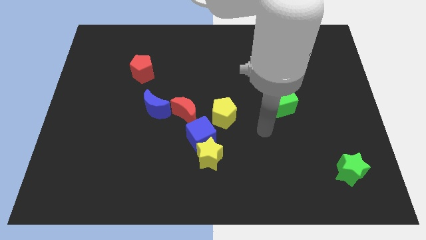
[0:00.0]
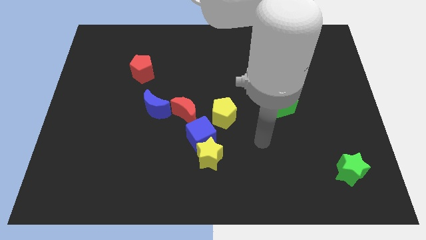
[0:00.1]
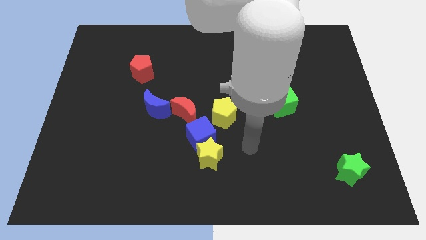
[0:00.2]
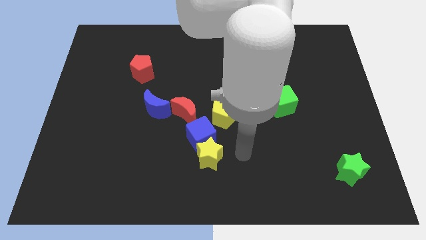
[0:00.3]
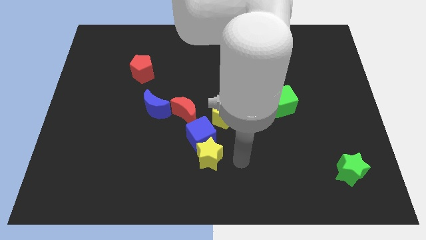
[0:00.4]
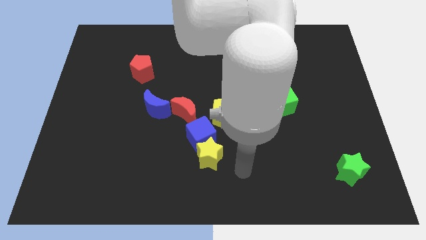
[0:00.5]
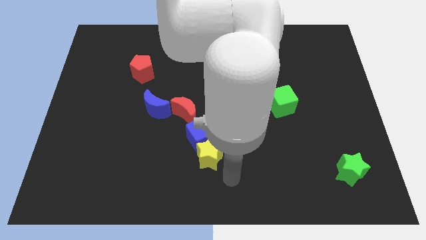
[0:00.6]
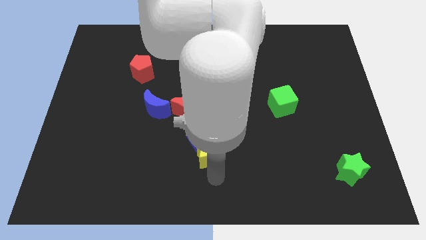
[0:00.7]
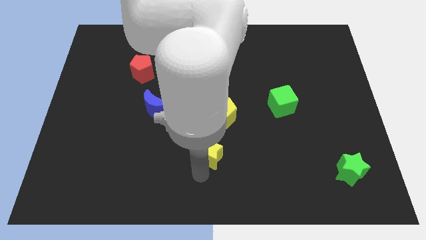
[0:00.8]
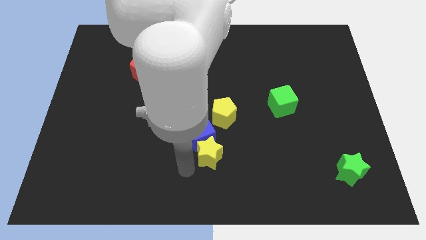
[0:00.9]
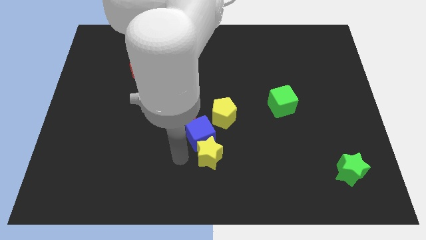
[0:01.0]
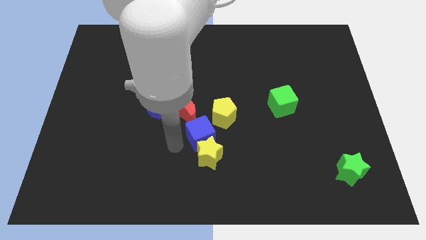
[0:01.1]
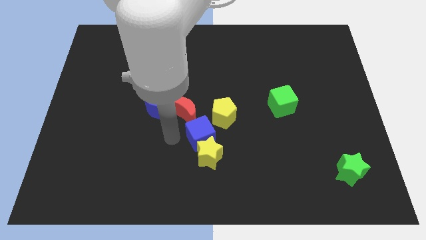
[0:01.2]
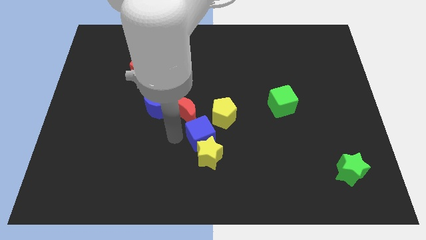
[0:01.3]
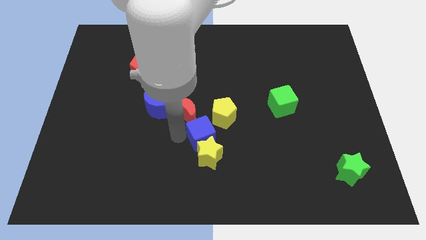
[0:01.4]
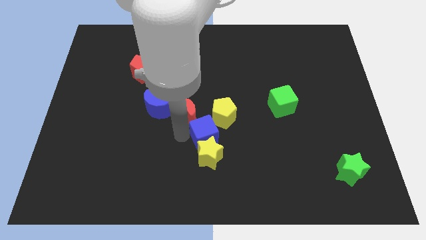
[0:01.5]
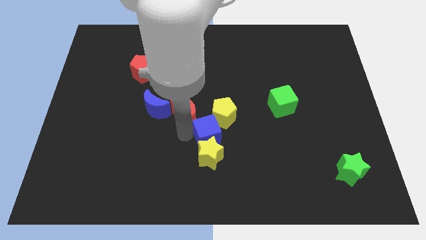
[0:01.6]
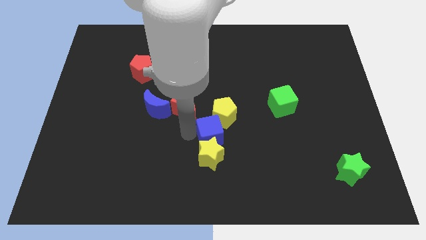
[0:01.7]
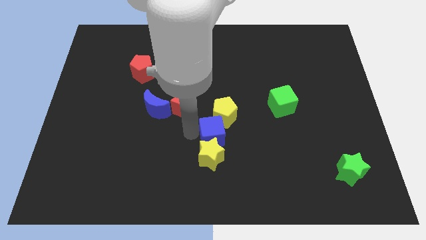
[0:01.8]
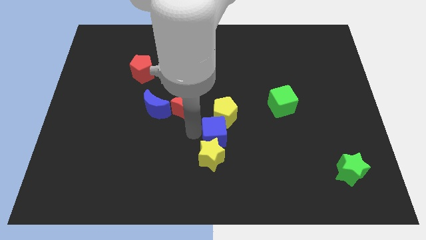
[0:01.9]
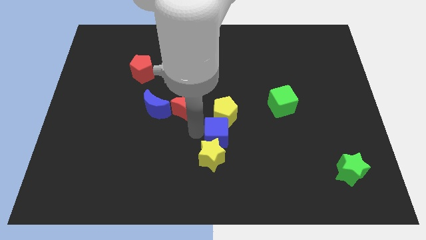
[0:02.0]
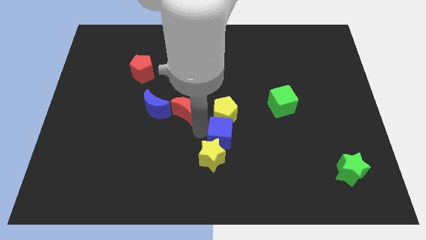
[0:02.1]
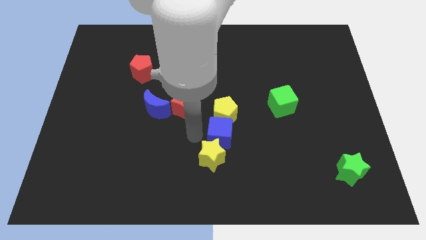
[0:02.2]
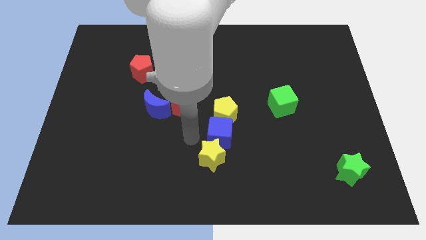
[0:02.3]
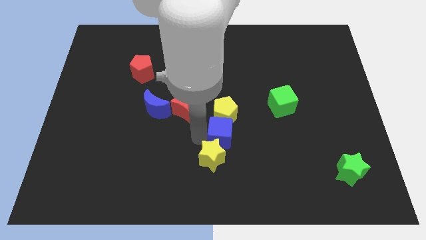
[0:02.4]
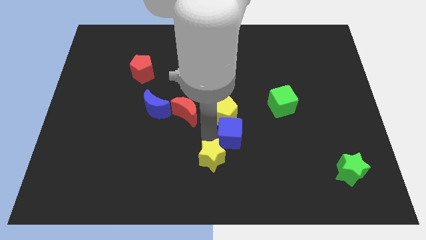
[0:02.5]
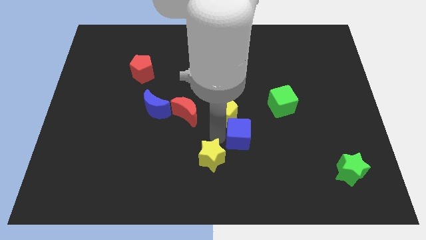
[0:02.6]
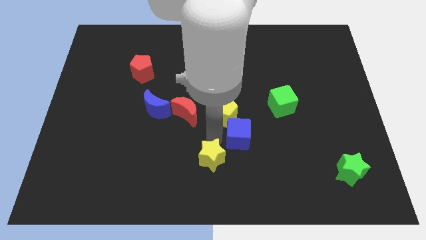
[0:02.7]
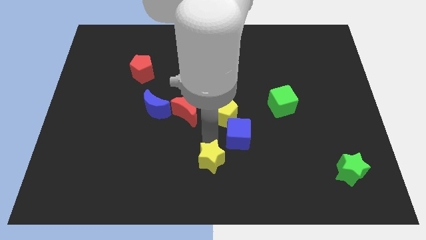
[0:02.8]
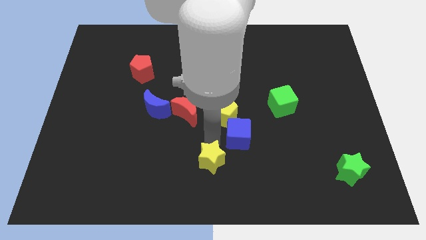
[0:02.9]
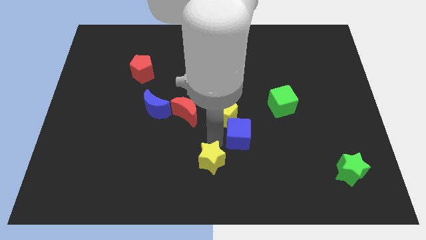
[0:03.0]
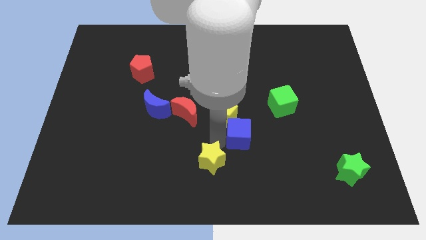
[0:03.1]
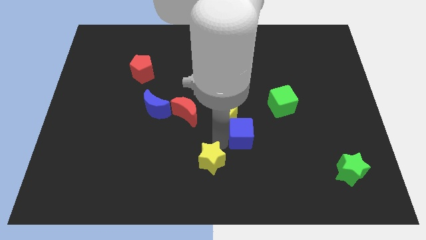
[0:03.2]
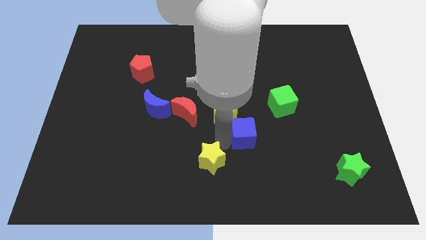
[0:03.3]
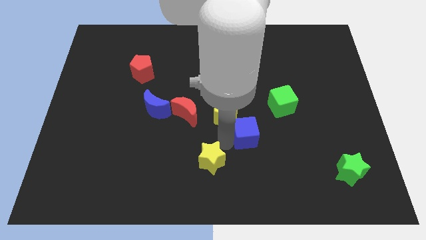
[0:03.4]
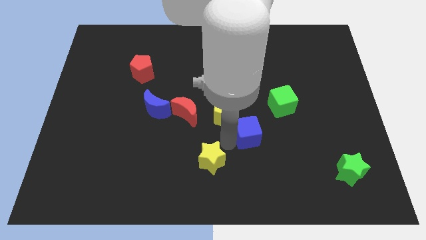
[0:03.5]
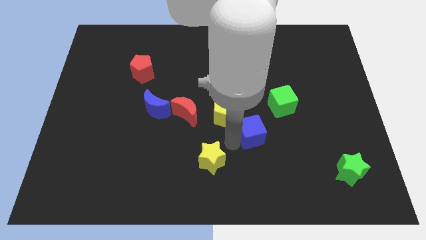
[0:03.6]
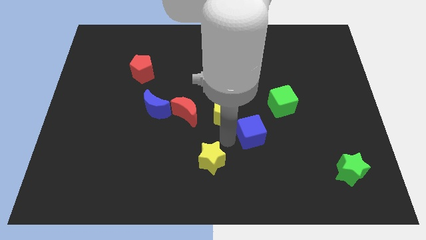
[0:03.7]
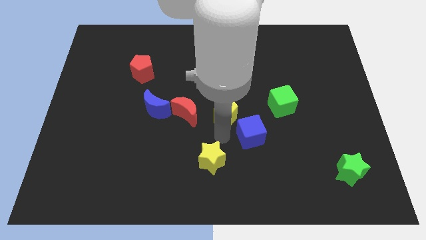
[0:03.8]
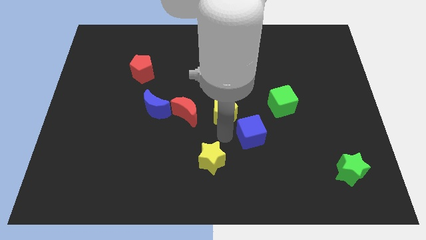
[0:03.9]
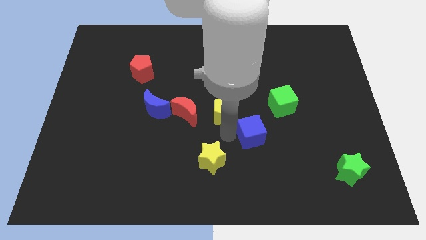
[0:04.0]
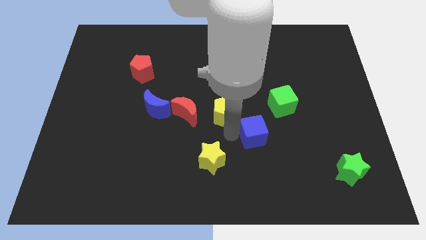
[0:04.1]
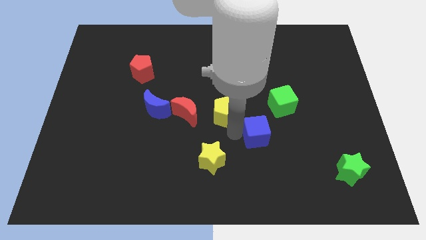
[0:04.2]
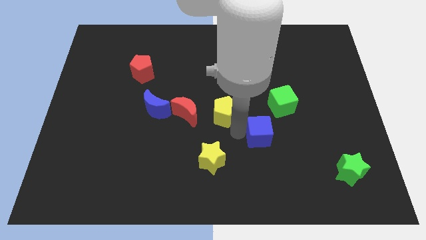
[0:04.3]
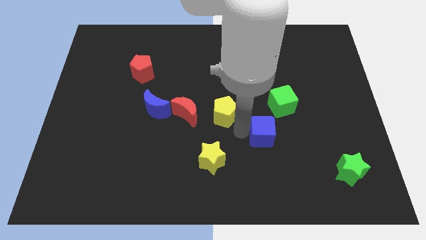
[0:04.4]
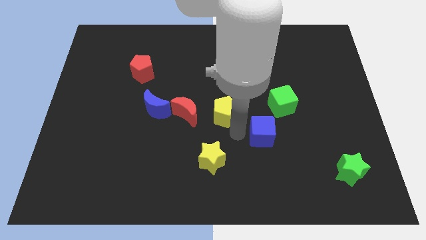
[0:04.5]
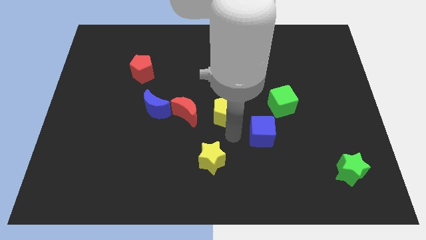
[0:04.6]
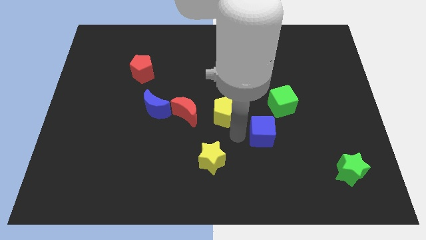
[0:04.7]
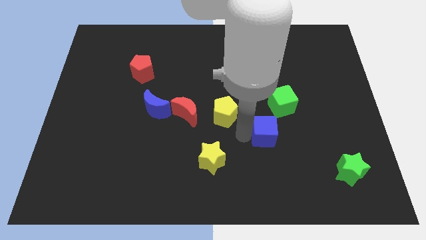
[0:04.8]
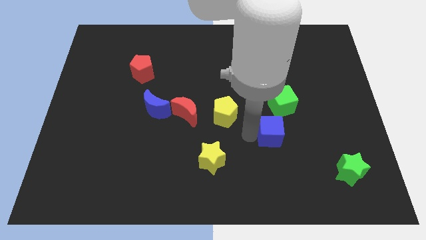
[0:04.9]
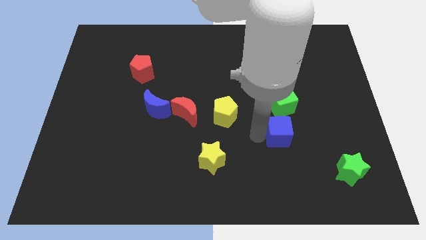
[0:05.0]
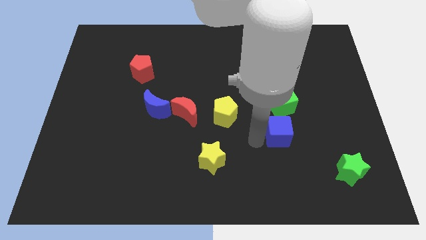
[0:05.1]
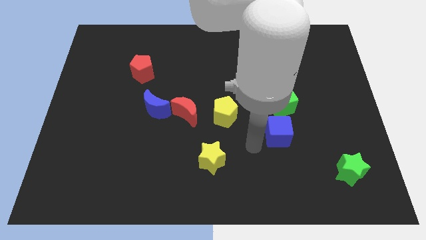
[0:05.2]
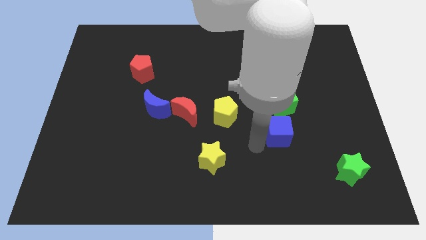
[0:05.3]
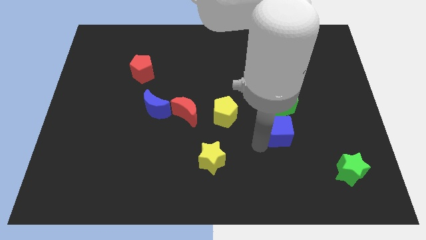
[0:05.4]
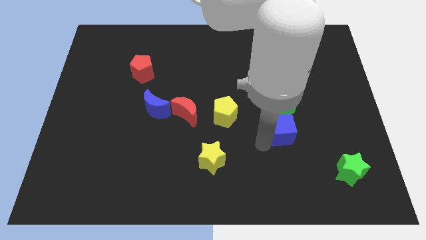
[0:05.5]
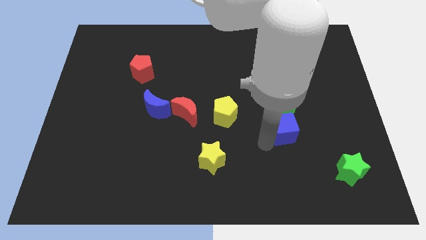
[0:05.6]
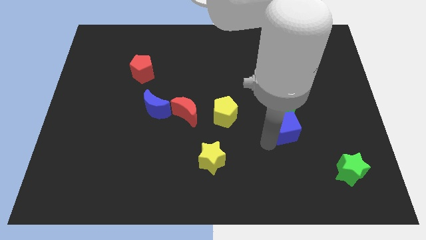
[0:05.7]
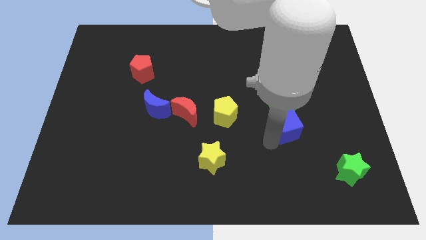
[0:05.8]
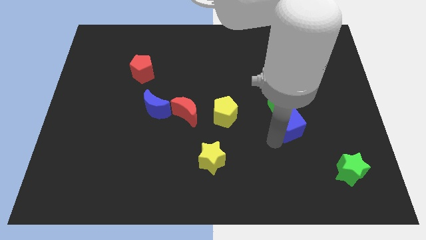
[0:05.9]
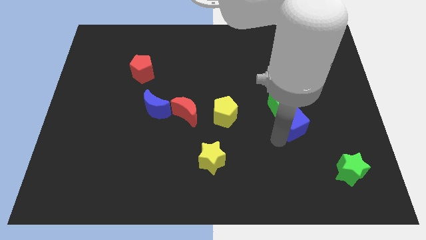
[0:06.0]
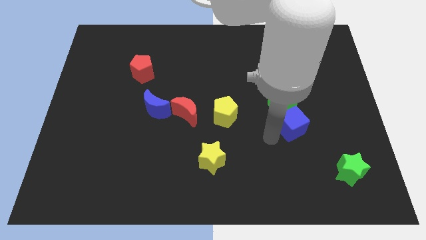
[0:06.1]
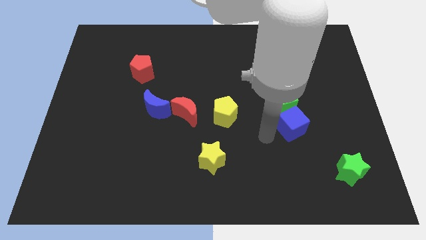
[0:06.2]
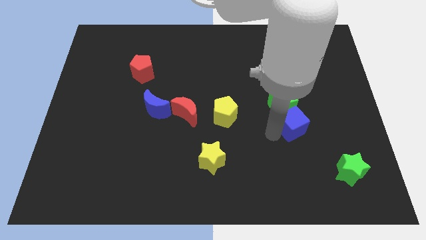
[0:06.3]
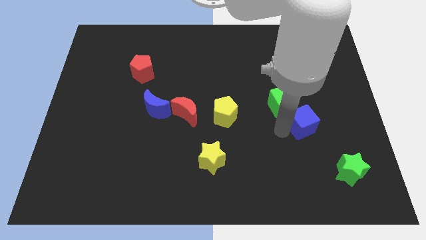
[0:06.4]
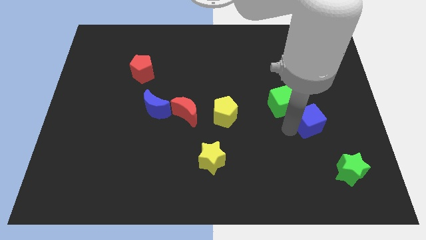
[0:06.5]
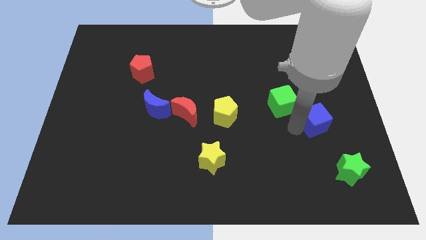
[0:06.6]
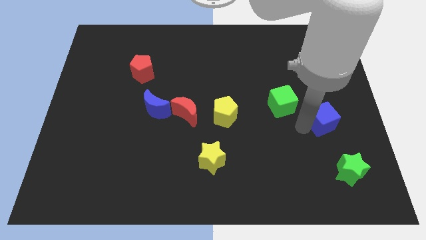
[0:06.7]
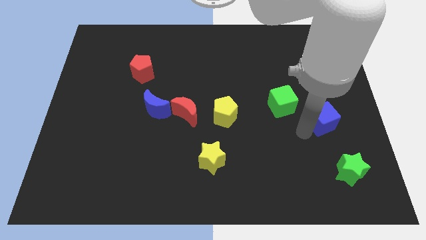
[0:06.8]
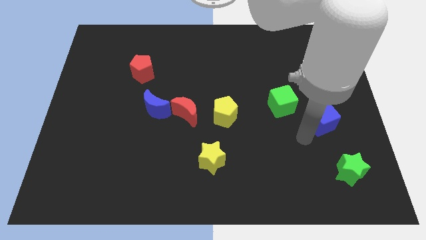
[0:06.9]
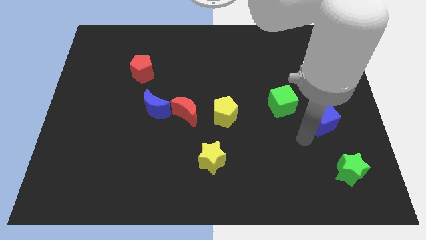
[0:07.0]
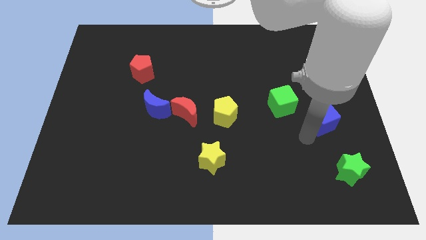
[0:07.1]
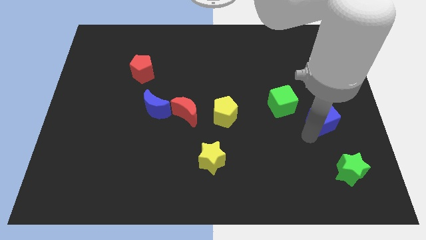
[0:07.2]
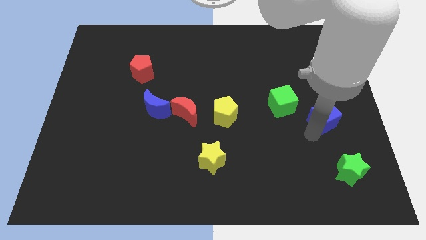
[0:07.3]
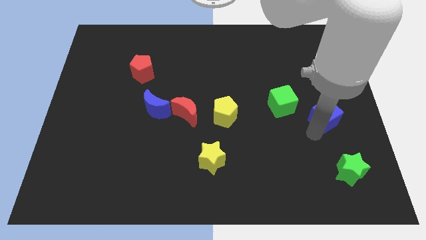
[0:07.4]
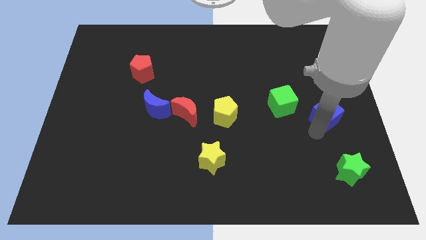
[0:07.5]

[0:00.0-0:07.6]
put the blue cube to the center right
